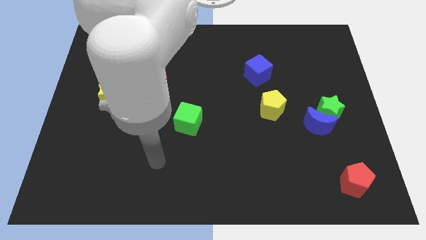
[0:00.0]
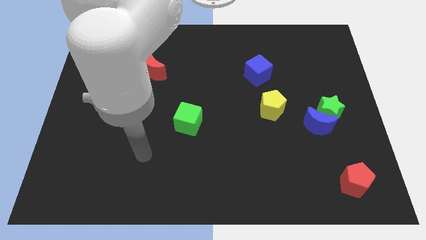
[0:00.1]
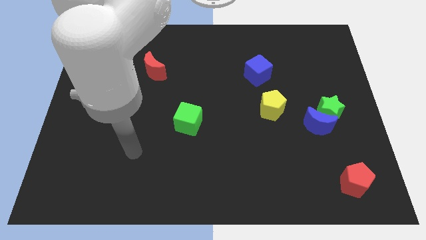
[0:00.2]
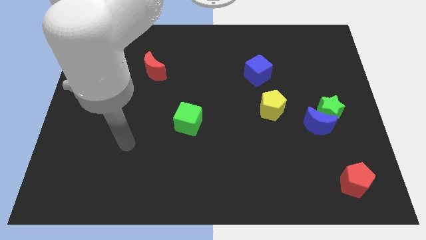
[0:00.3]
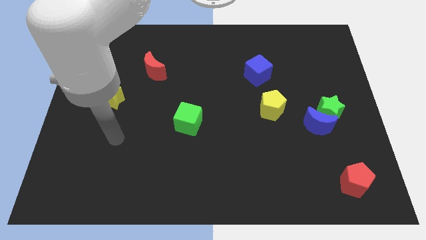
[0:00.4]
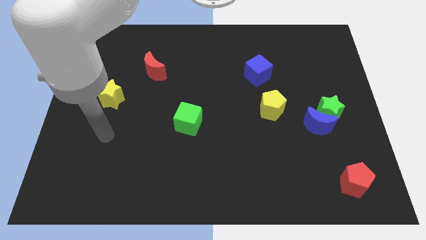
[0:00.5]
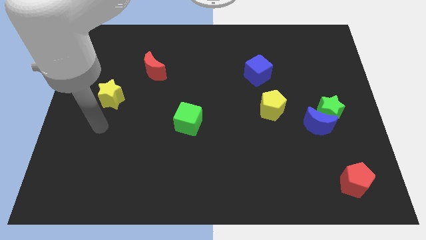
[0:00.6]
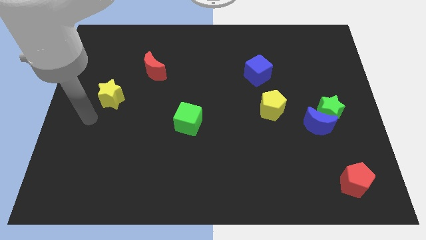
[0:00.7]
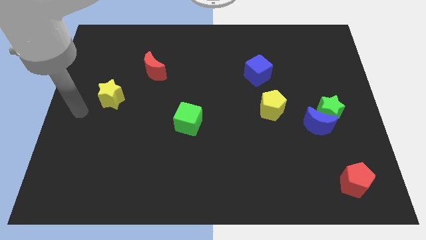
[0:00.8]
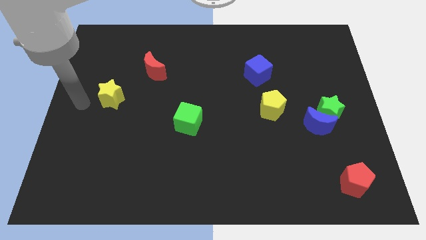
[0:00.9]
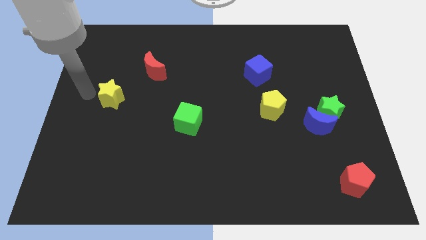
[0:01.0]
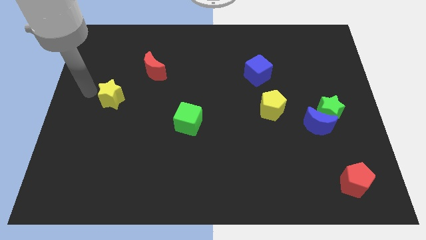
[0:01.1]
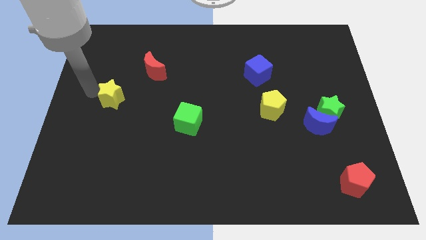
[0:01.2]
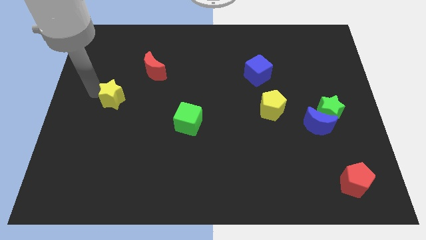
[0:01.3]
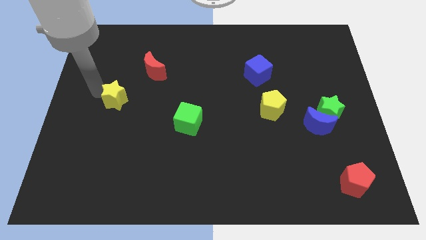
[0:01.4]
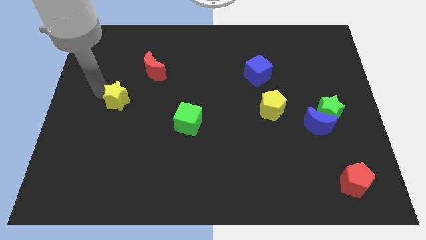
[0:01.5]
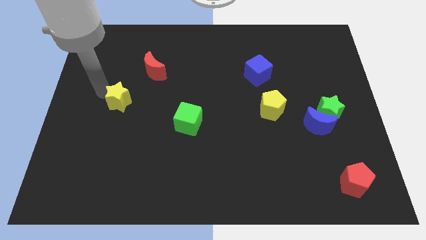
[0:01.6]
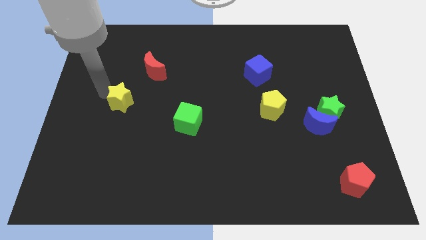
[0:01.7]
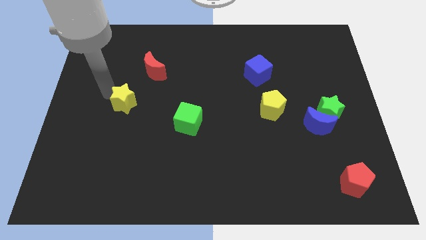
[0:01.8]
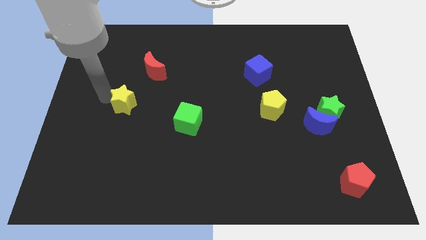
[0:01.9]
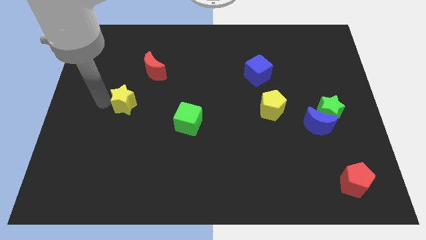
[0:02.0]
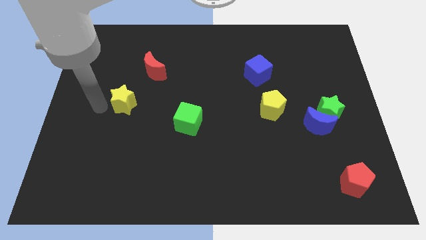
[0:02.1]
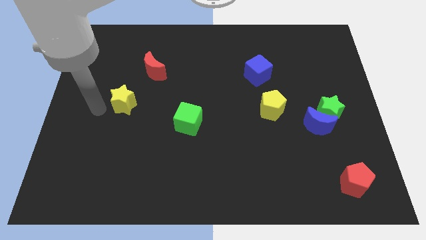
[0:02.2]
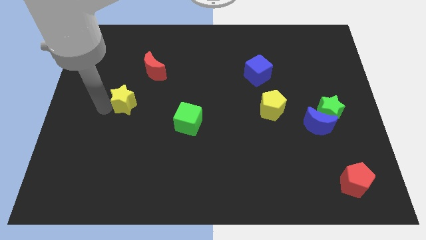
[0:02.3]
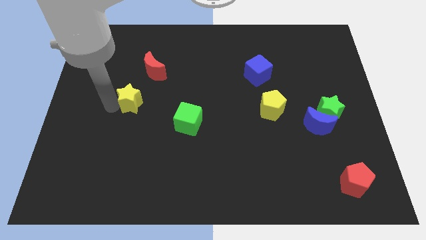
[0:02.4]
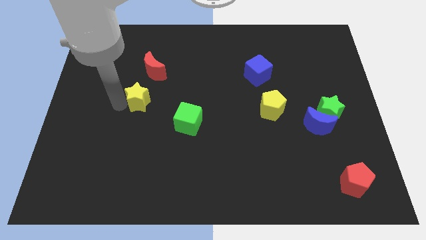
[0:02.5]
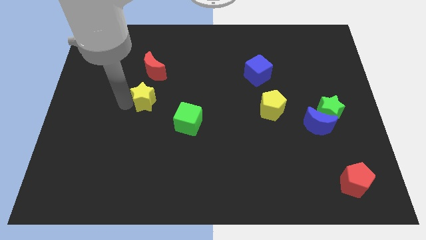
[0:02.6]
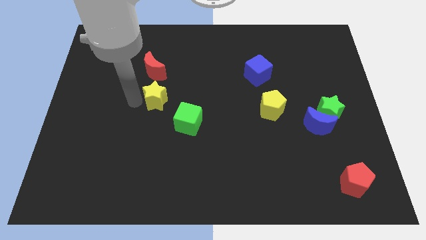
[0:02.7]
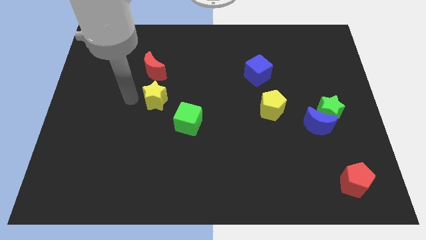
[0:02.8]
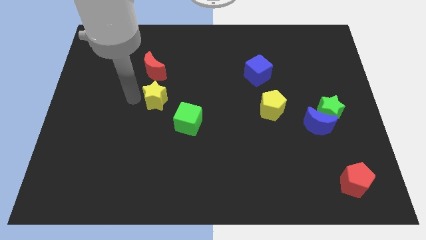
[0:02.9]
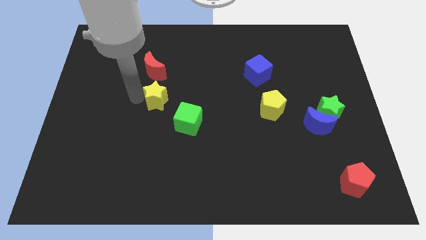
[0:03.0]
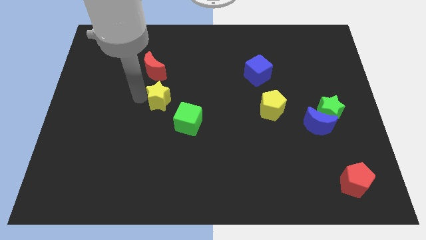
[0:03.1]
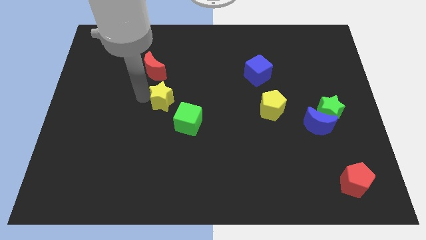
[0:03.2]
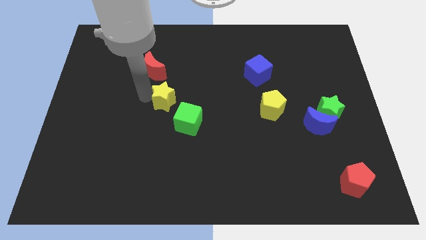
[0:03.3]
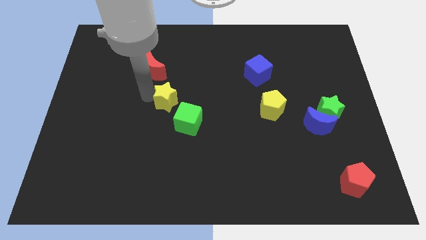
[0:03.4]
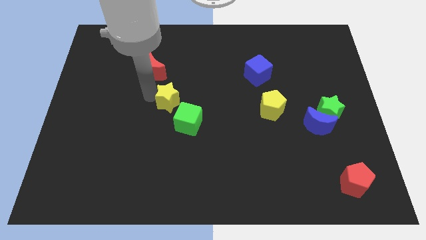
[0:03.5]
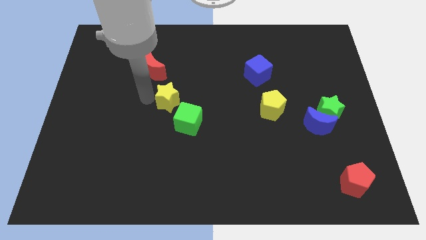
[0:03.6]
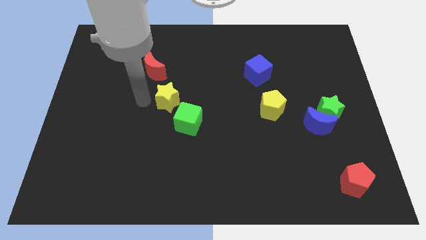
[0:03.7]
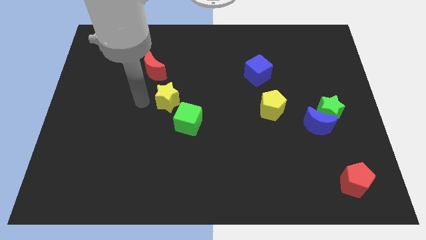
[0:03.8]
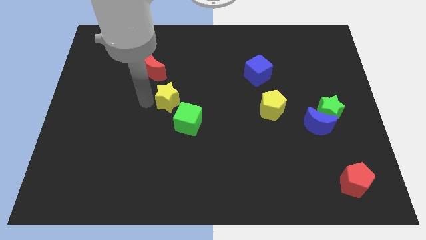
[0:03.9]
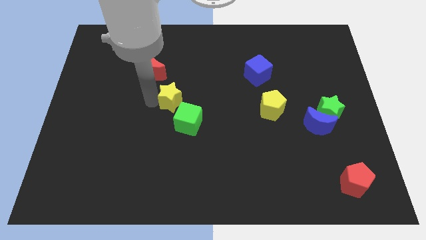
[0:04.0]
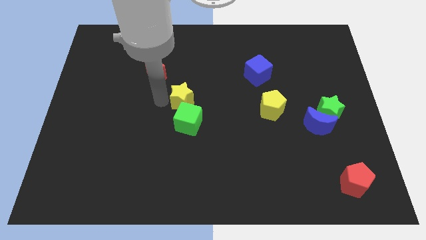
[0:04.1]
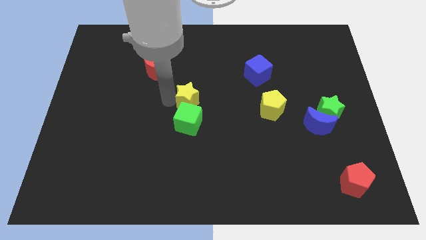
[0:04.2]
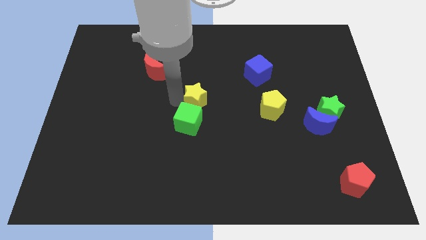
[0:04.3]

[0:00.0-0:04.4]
slide the yellow star to the right

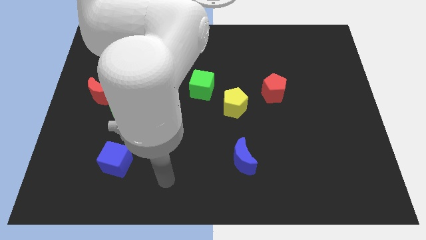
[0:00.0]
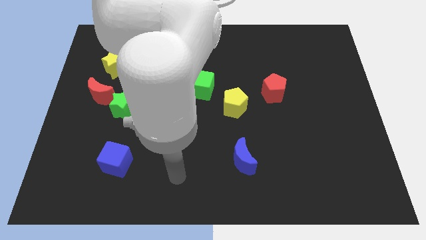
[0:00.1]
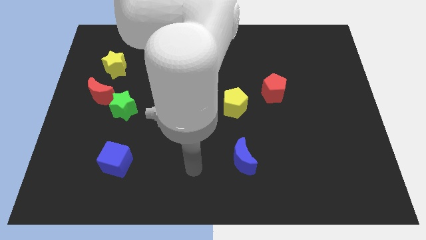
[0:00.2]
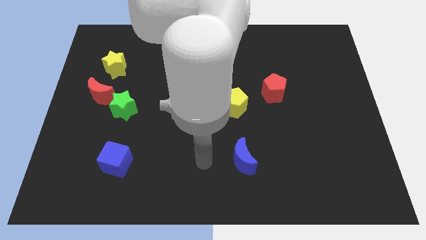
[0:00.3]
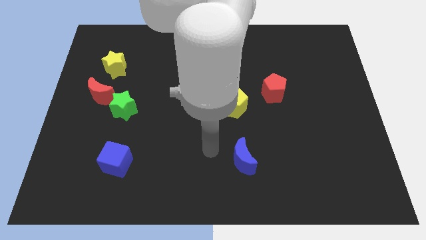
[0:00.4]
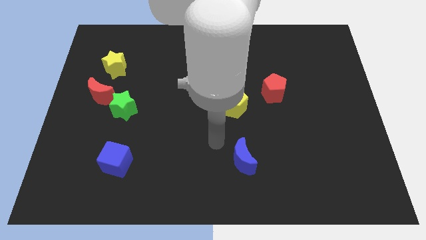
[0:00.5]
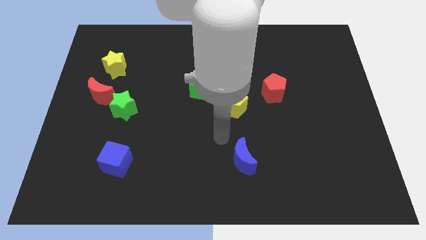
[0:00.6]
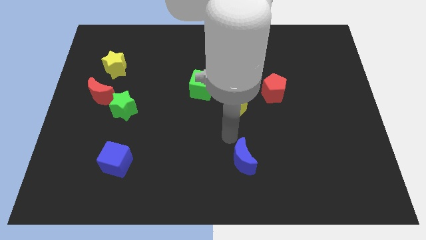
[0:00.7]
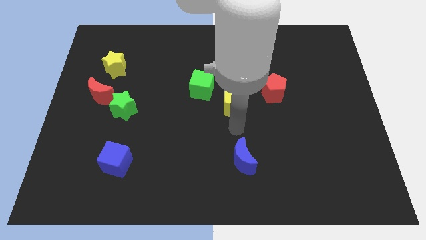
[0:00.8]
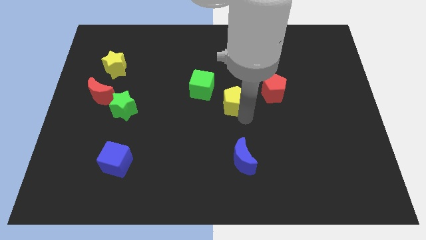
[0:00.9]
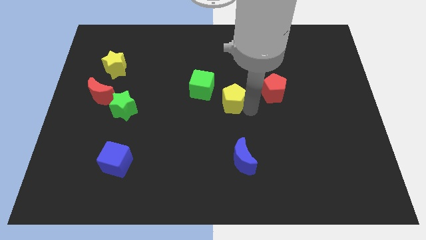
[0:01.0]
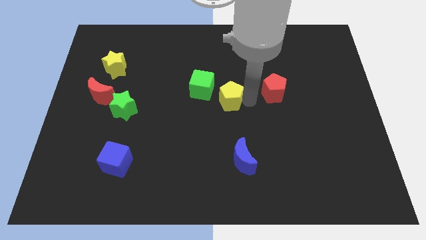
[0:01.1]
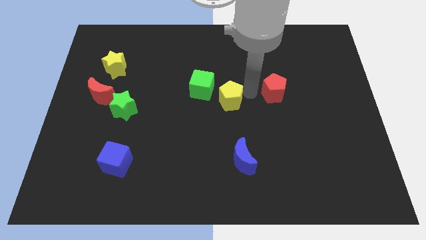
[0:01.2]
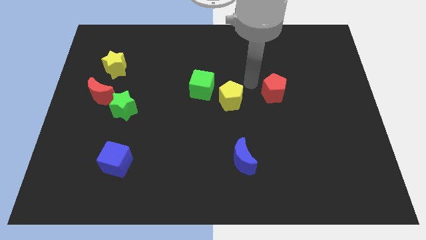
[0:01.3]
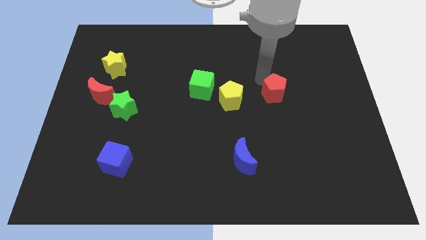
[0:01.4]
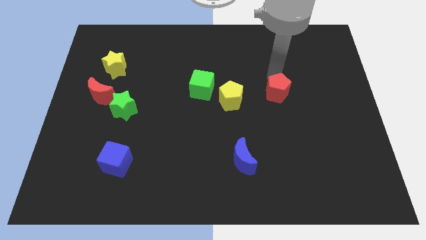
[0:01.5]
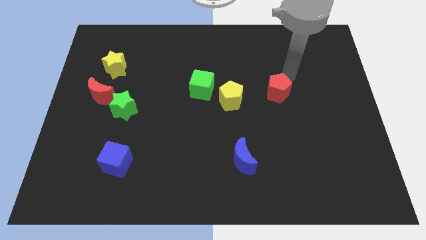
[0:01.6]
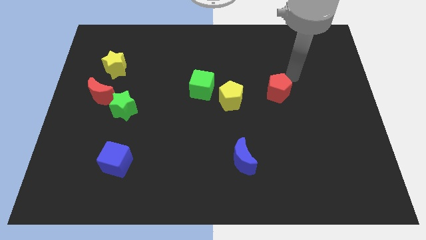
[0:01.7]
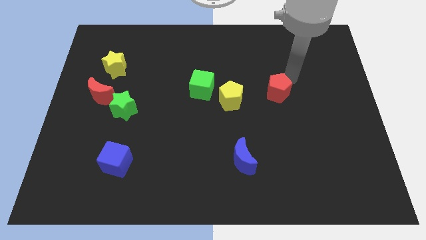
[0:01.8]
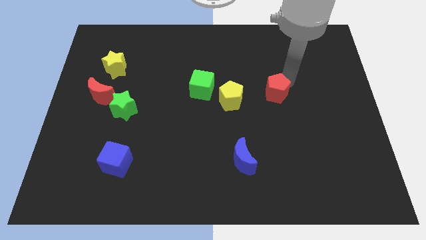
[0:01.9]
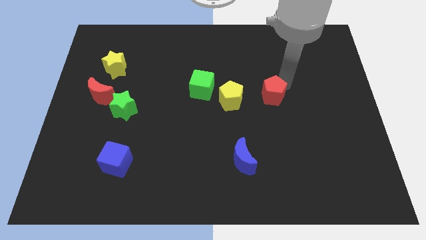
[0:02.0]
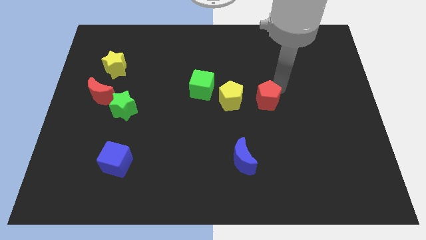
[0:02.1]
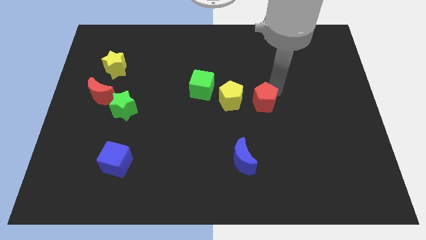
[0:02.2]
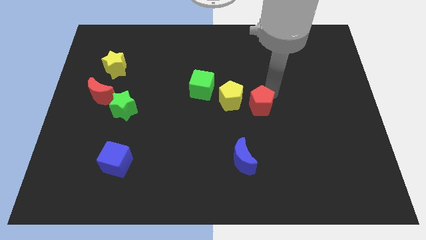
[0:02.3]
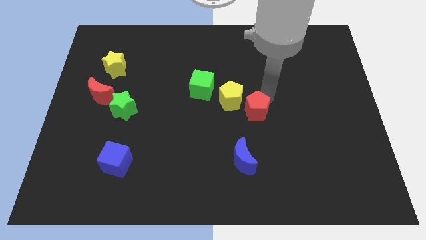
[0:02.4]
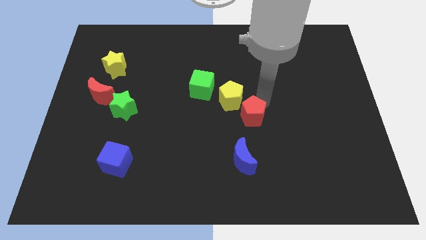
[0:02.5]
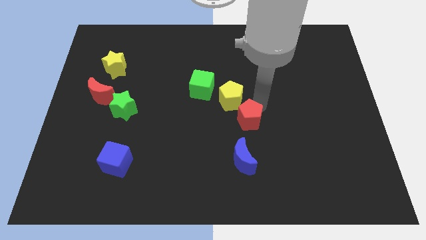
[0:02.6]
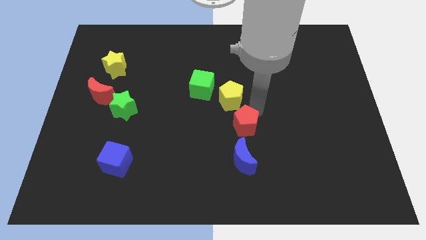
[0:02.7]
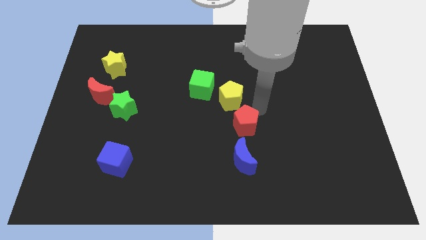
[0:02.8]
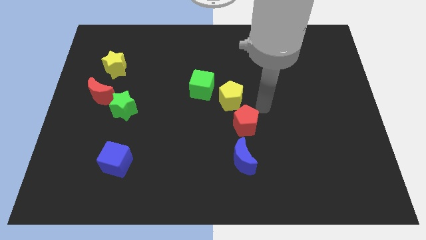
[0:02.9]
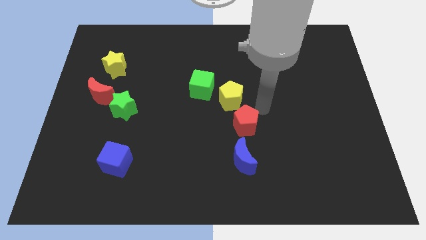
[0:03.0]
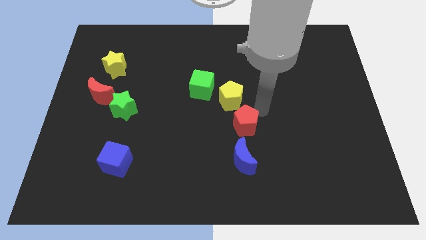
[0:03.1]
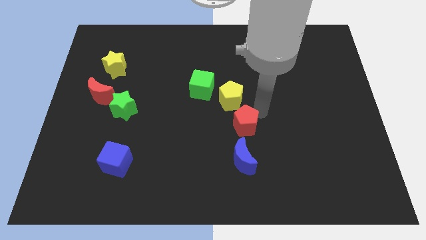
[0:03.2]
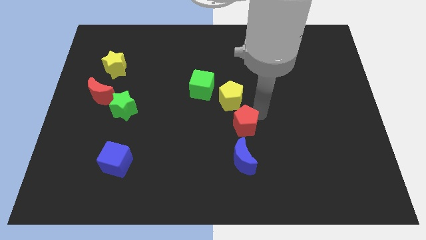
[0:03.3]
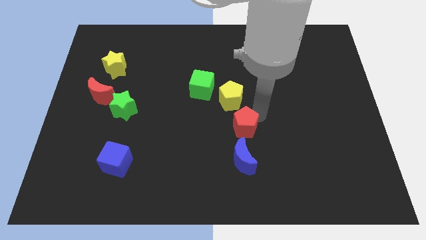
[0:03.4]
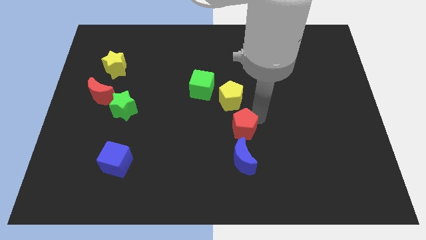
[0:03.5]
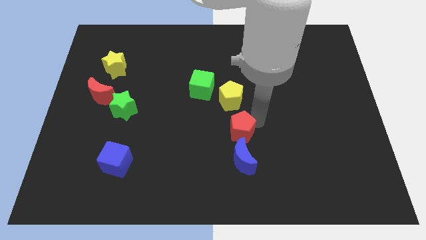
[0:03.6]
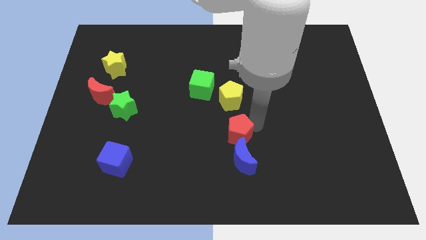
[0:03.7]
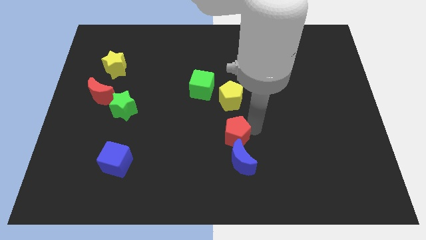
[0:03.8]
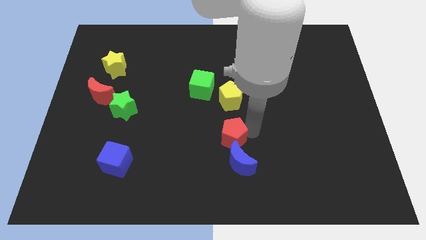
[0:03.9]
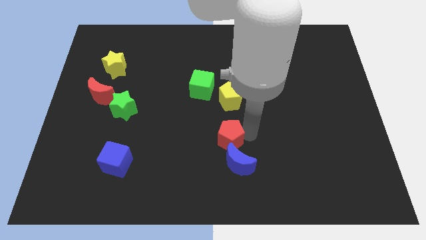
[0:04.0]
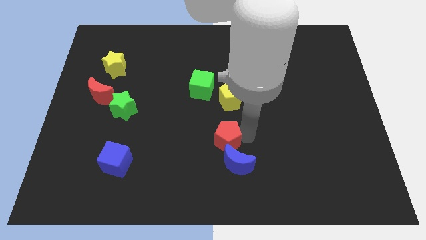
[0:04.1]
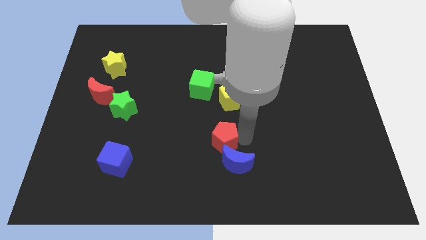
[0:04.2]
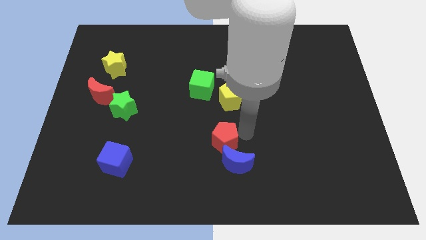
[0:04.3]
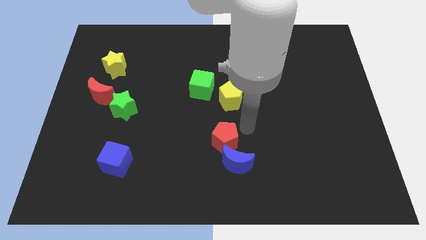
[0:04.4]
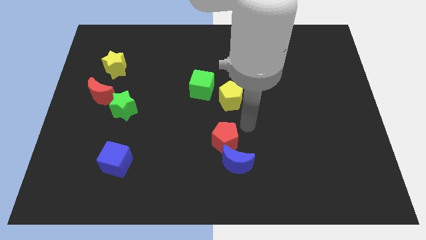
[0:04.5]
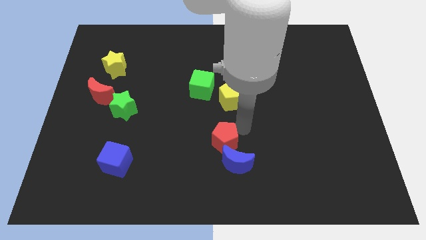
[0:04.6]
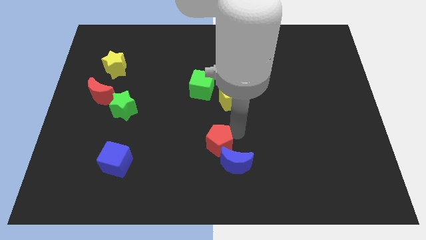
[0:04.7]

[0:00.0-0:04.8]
push the red pentagon down and then to the left
